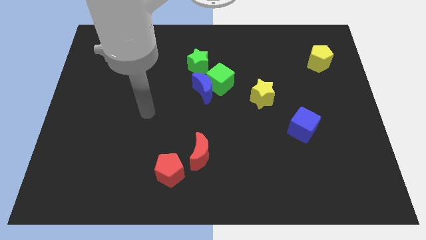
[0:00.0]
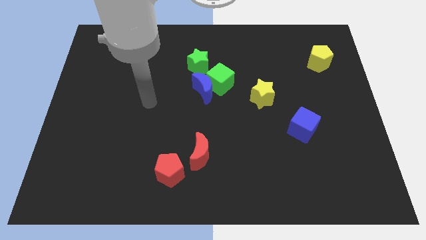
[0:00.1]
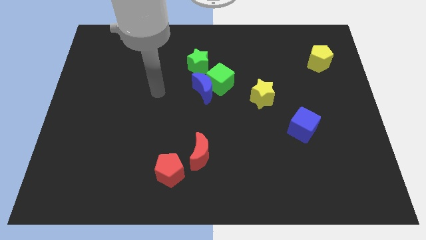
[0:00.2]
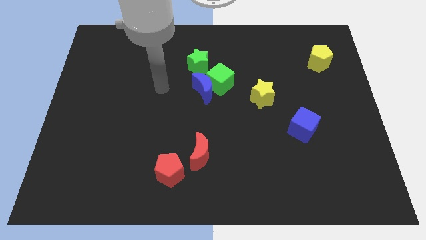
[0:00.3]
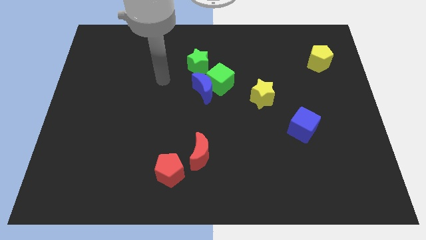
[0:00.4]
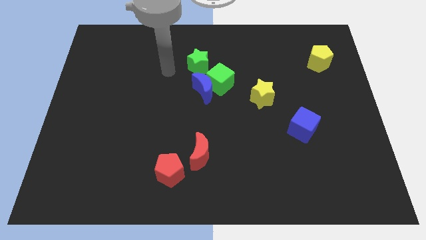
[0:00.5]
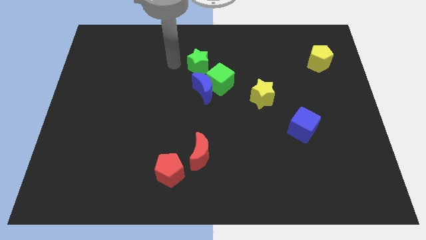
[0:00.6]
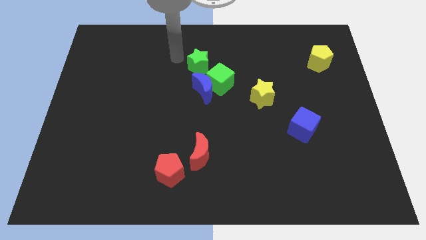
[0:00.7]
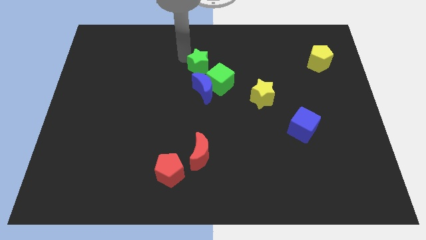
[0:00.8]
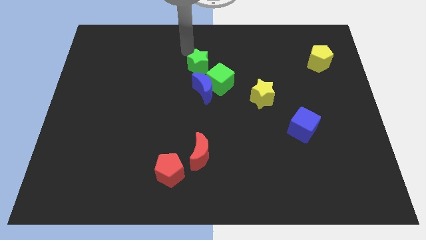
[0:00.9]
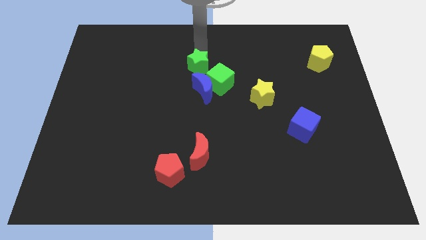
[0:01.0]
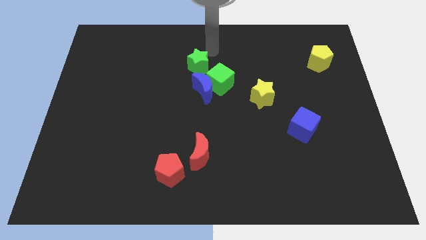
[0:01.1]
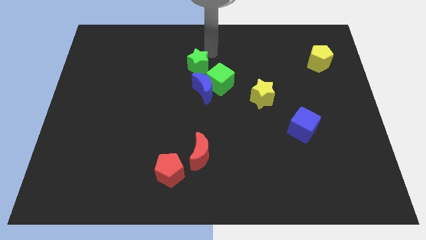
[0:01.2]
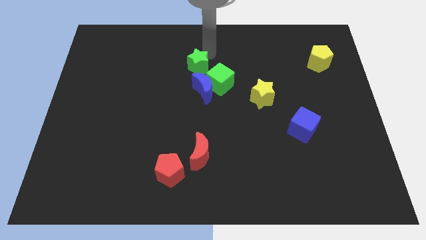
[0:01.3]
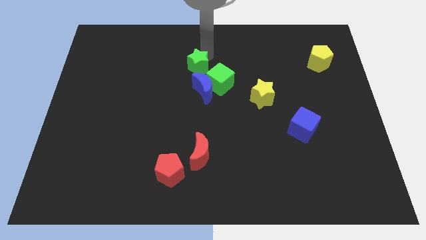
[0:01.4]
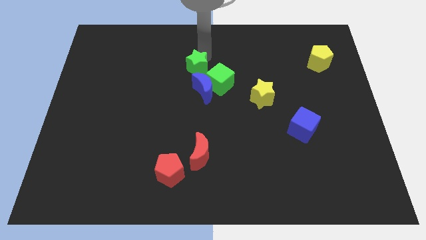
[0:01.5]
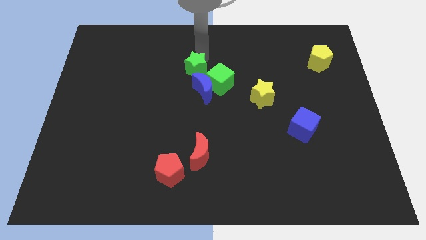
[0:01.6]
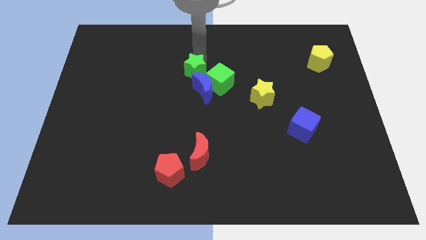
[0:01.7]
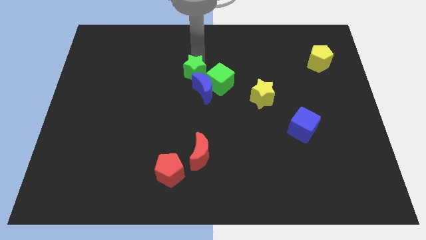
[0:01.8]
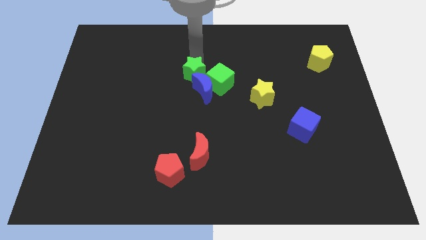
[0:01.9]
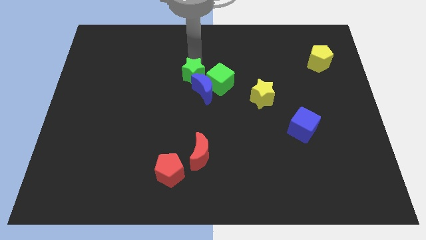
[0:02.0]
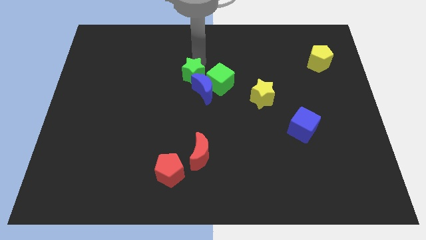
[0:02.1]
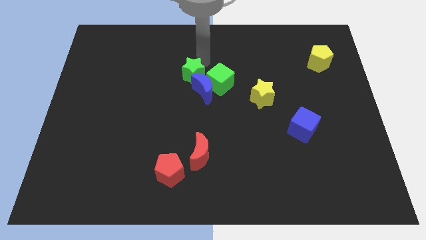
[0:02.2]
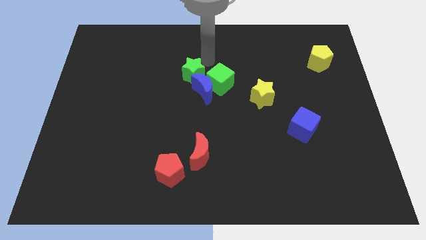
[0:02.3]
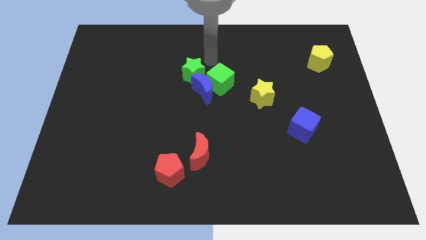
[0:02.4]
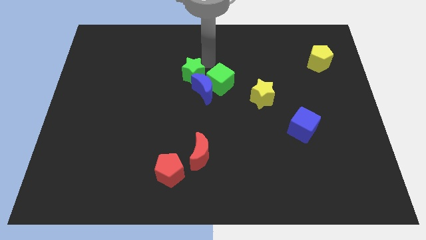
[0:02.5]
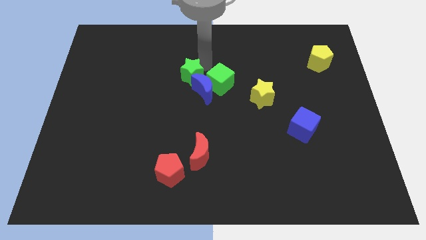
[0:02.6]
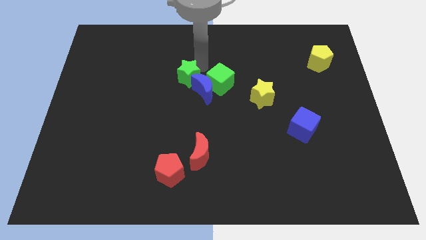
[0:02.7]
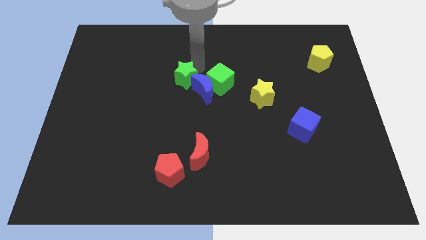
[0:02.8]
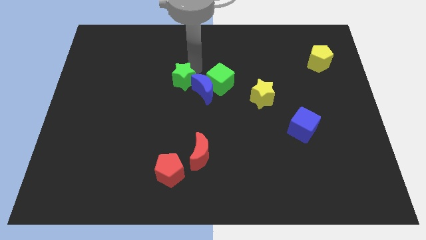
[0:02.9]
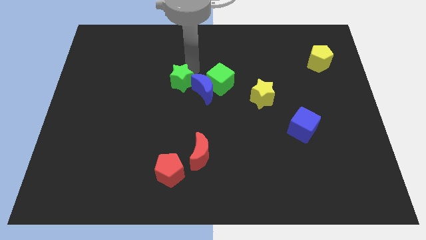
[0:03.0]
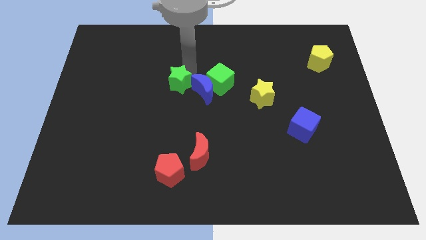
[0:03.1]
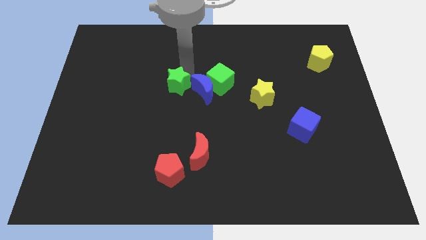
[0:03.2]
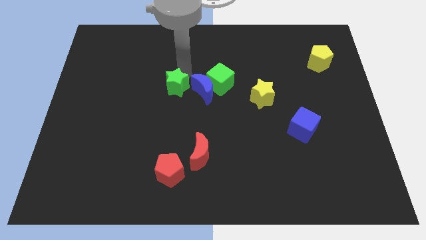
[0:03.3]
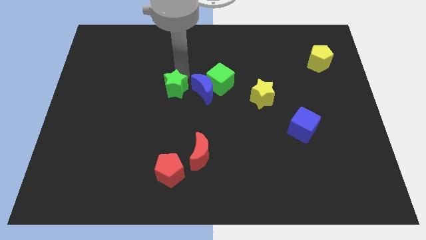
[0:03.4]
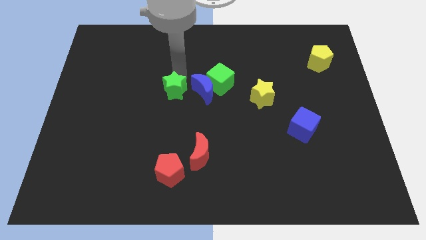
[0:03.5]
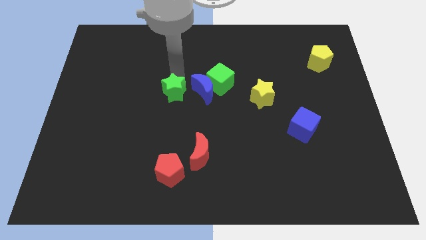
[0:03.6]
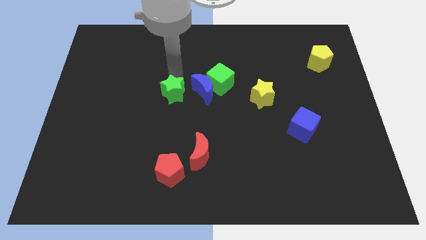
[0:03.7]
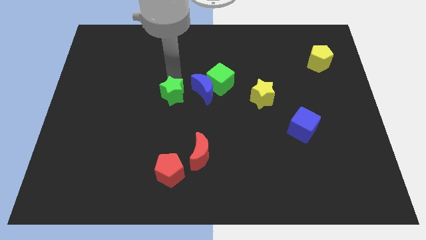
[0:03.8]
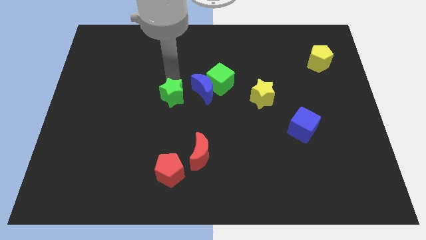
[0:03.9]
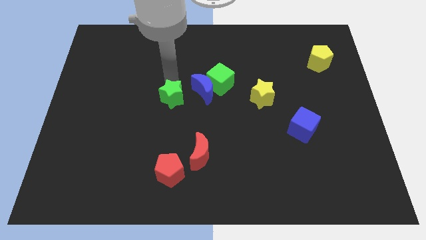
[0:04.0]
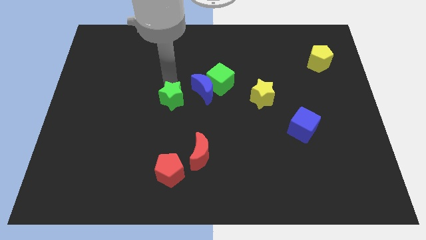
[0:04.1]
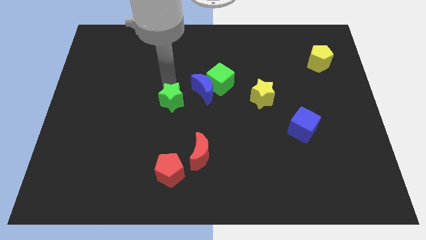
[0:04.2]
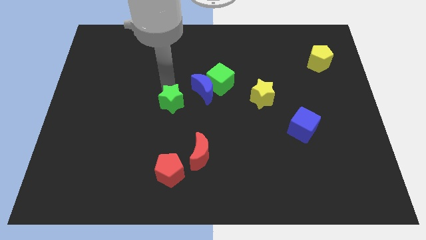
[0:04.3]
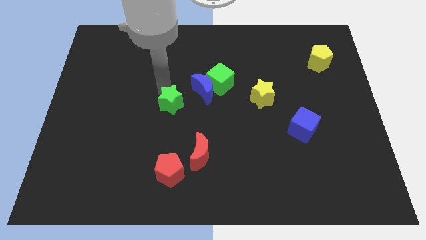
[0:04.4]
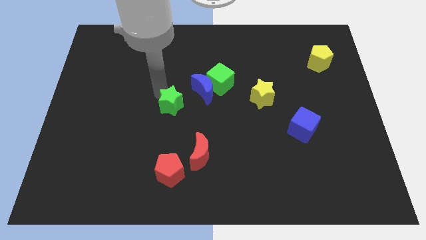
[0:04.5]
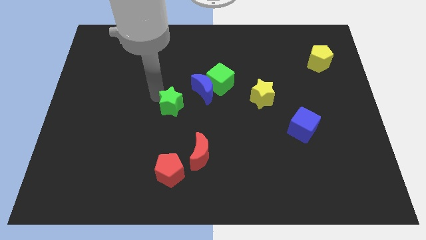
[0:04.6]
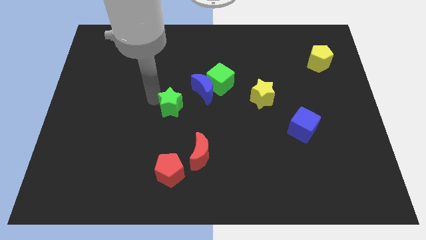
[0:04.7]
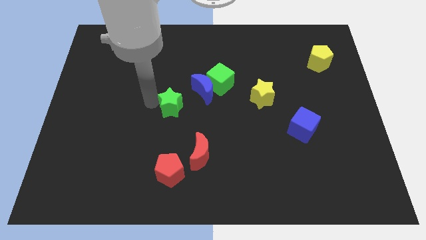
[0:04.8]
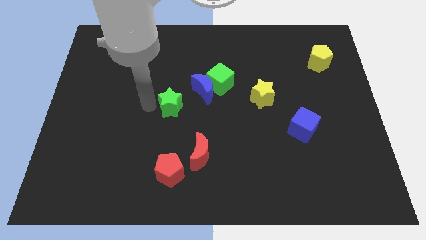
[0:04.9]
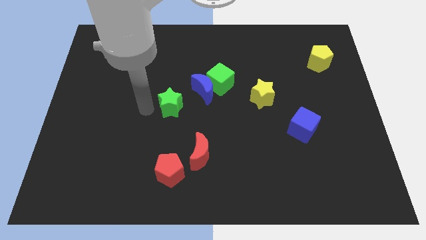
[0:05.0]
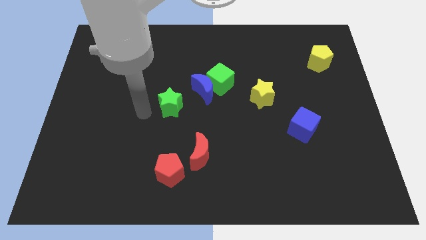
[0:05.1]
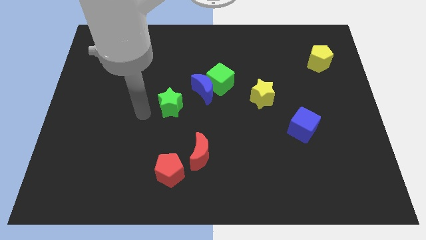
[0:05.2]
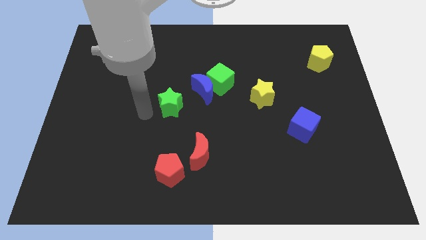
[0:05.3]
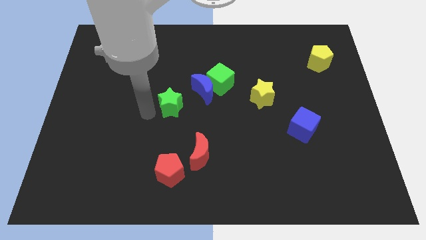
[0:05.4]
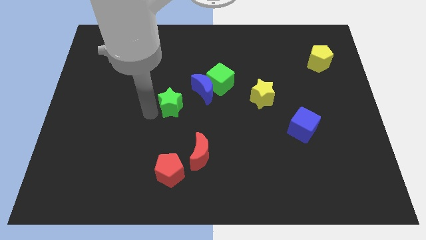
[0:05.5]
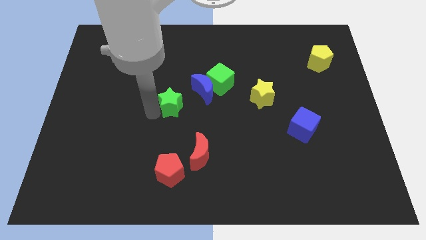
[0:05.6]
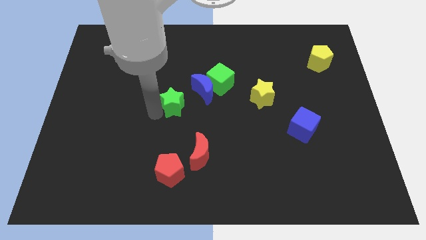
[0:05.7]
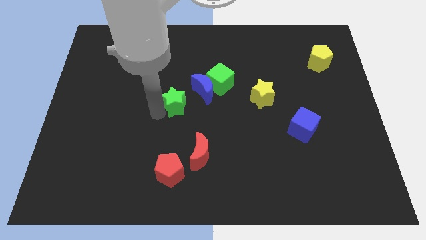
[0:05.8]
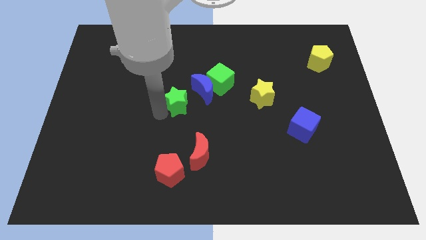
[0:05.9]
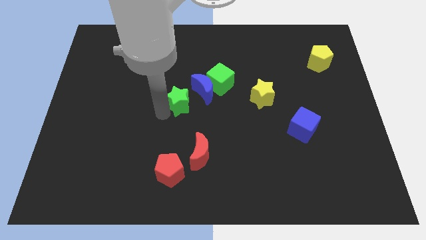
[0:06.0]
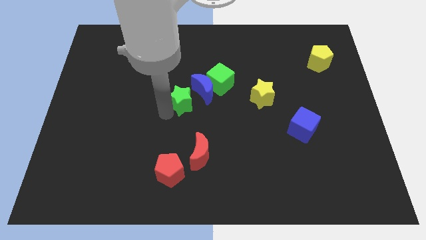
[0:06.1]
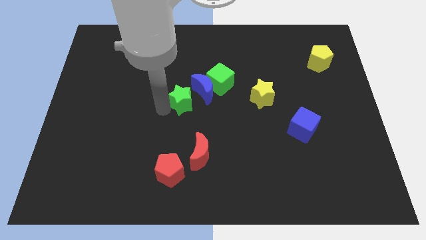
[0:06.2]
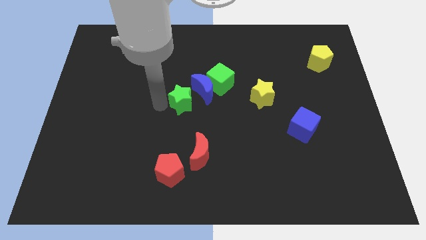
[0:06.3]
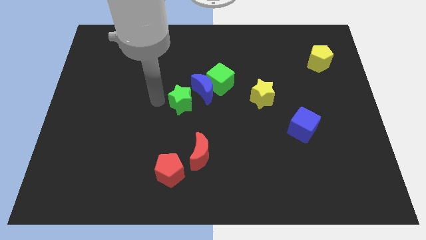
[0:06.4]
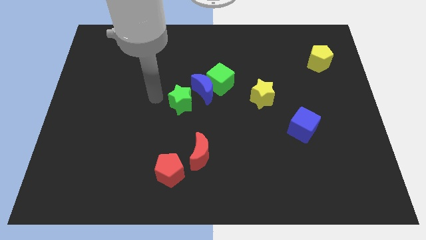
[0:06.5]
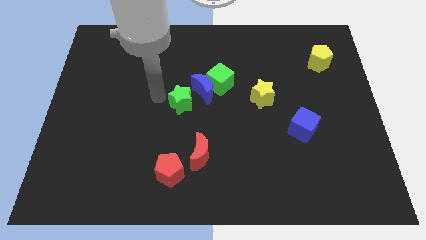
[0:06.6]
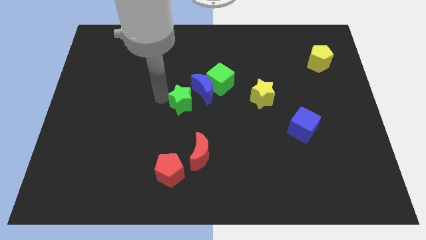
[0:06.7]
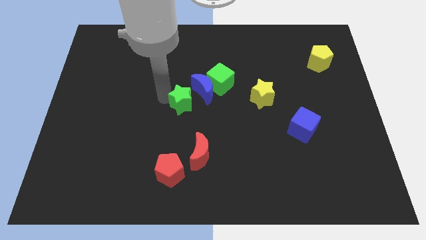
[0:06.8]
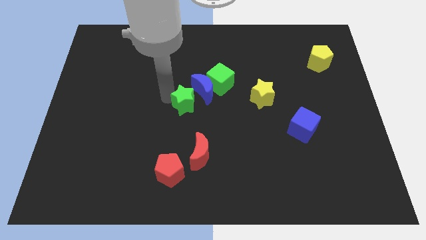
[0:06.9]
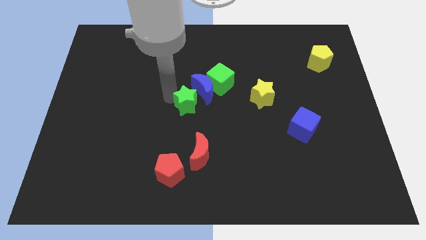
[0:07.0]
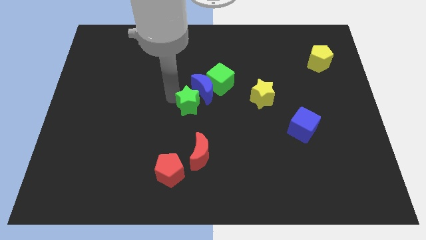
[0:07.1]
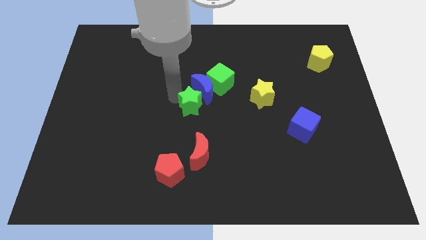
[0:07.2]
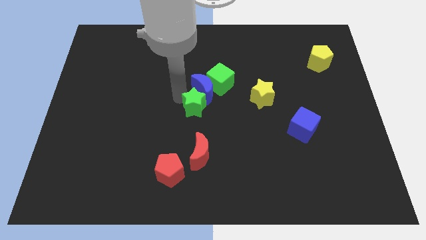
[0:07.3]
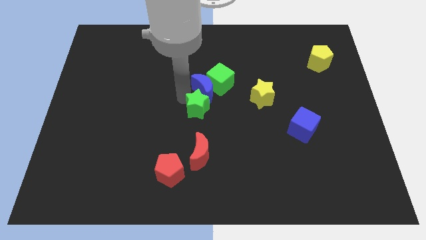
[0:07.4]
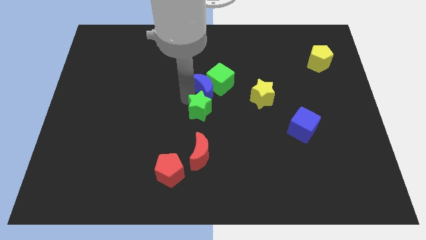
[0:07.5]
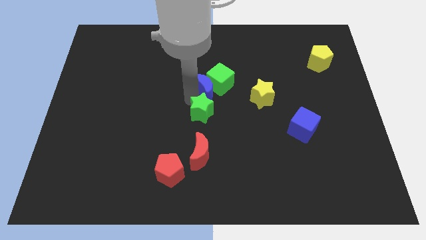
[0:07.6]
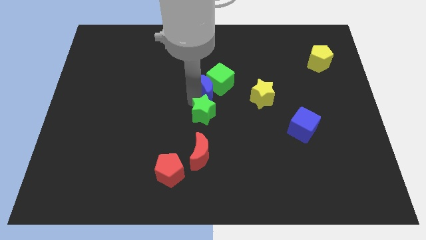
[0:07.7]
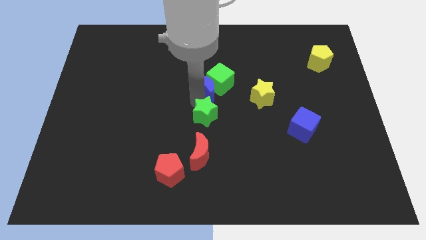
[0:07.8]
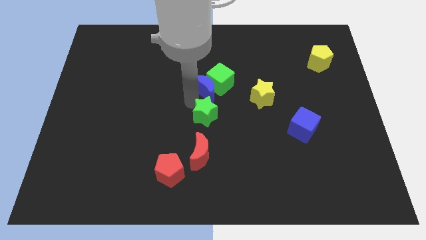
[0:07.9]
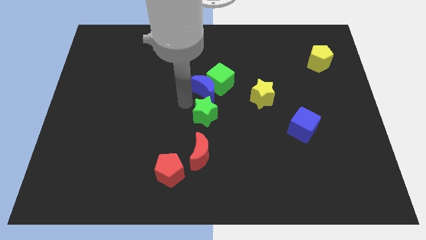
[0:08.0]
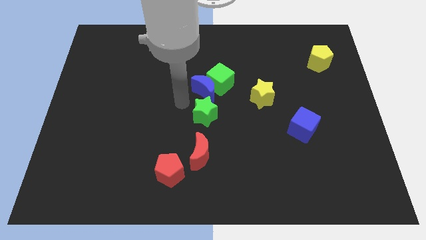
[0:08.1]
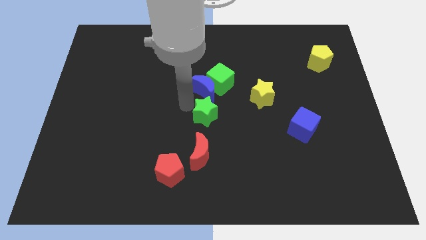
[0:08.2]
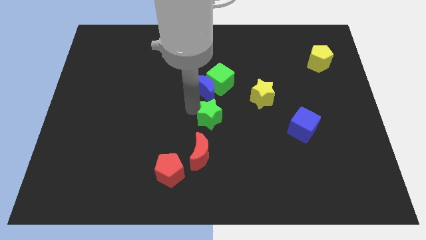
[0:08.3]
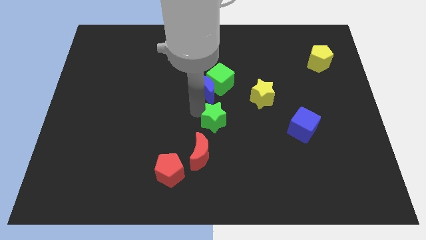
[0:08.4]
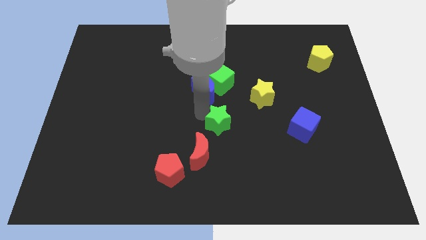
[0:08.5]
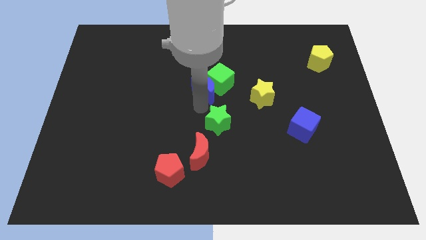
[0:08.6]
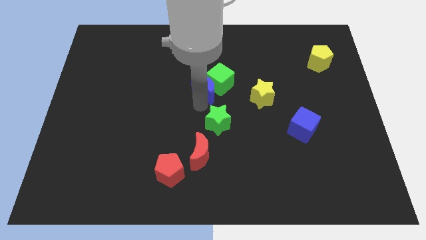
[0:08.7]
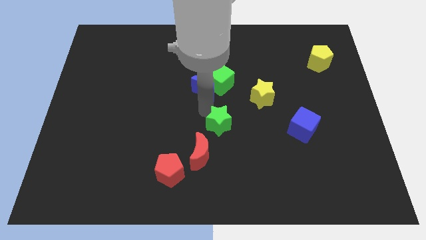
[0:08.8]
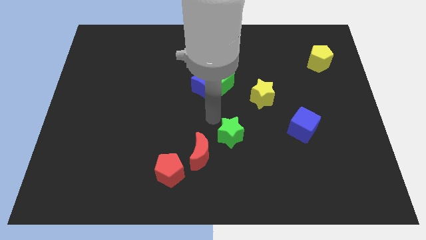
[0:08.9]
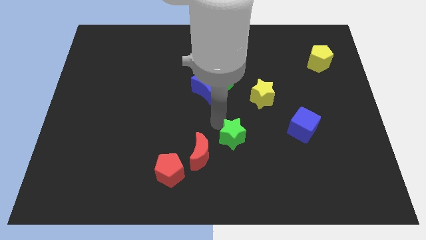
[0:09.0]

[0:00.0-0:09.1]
move the green star to the right side of the red moon
